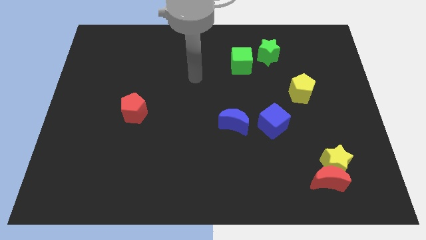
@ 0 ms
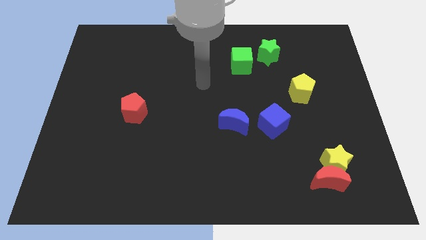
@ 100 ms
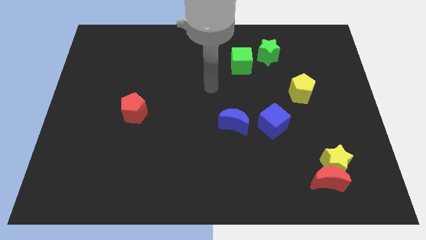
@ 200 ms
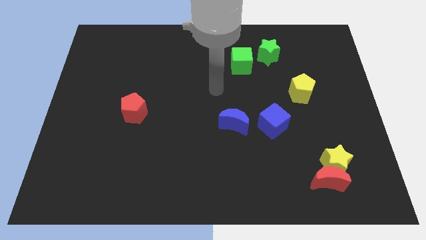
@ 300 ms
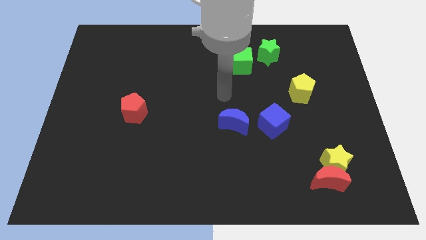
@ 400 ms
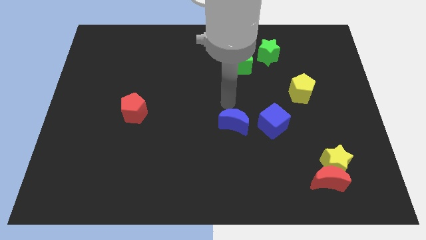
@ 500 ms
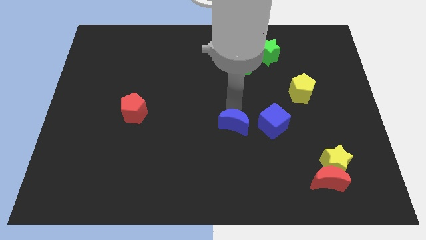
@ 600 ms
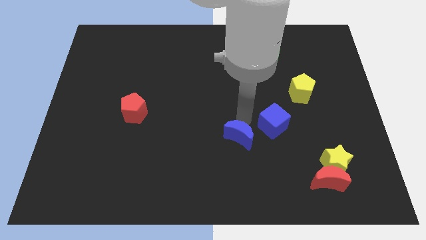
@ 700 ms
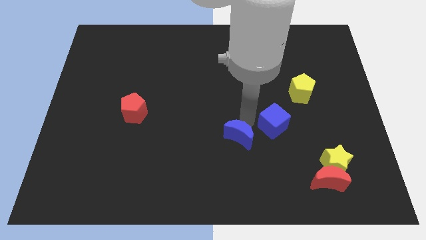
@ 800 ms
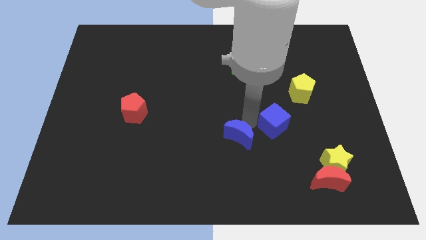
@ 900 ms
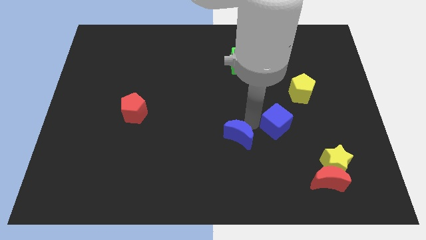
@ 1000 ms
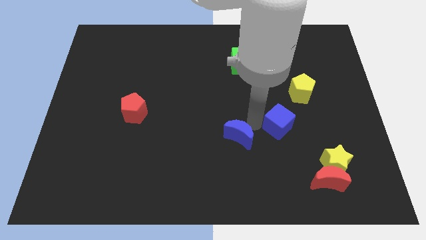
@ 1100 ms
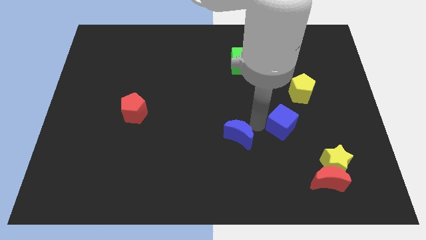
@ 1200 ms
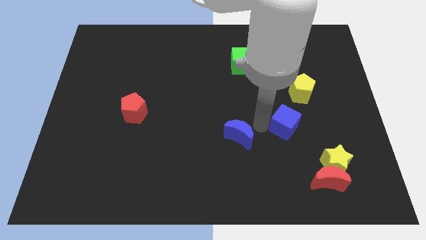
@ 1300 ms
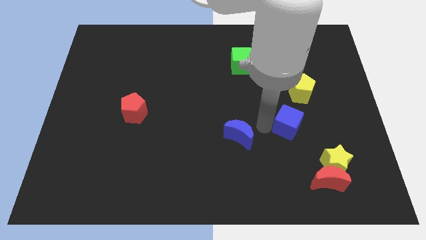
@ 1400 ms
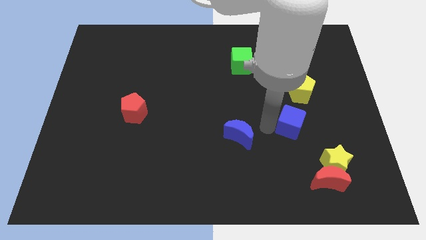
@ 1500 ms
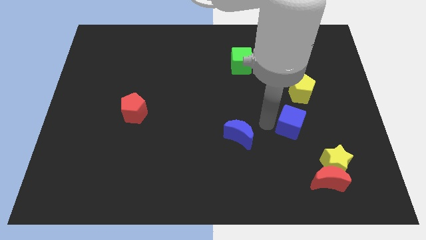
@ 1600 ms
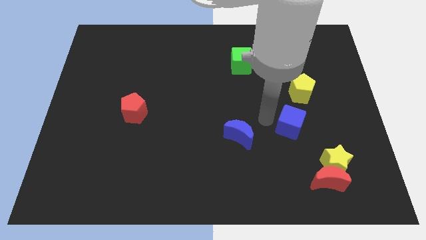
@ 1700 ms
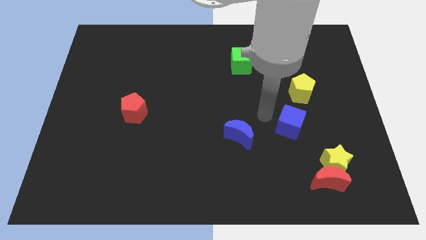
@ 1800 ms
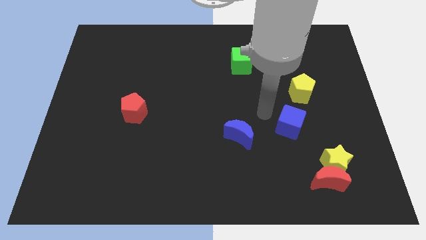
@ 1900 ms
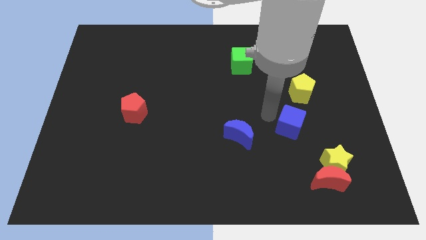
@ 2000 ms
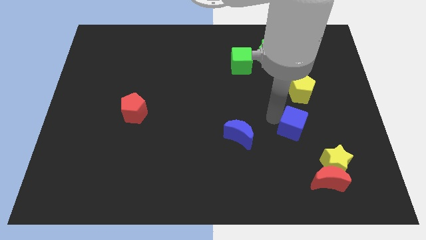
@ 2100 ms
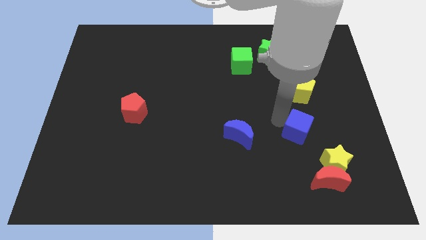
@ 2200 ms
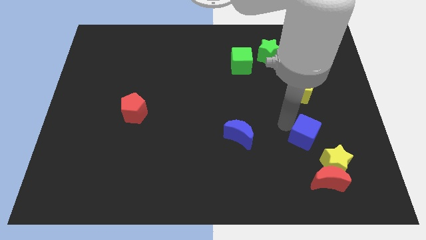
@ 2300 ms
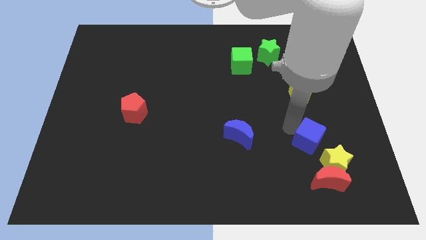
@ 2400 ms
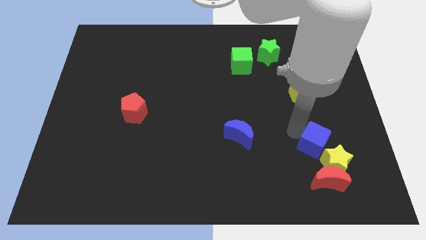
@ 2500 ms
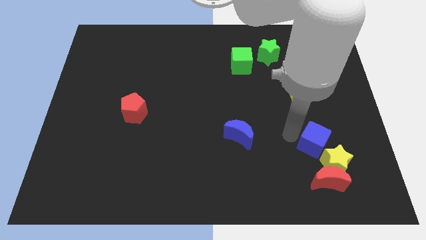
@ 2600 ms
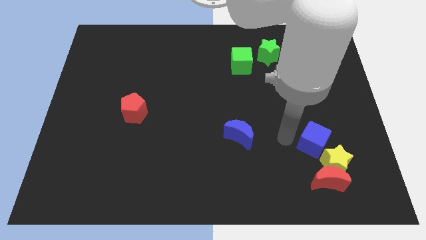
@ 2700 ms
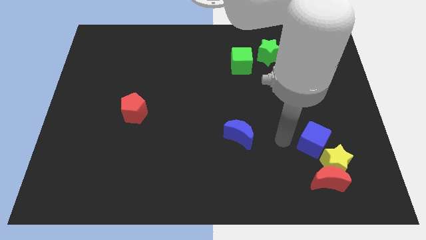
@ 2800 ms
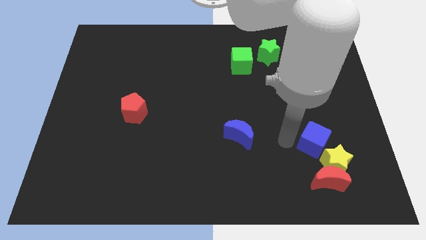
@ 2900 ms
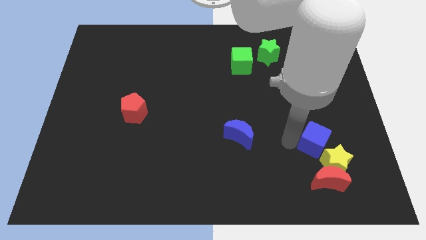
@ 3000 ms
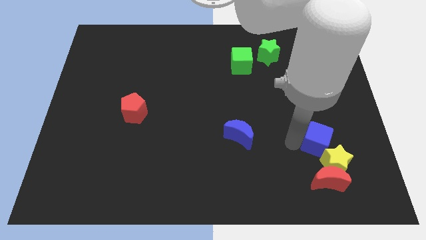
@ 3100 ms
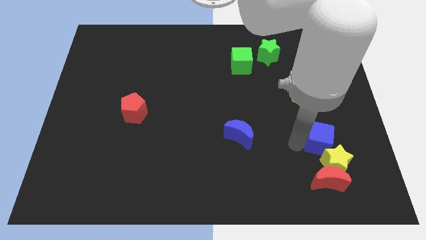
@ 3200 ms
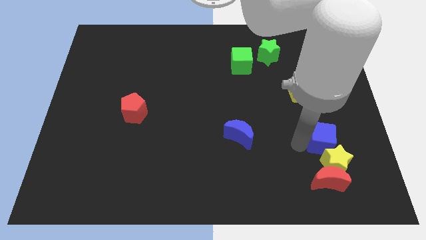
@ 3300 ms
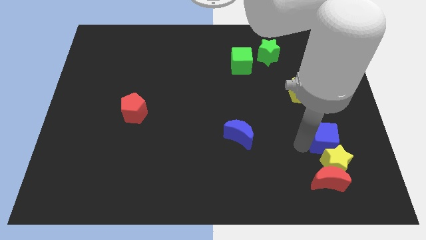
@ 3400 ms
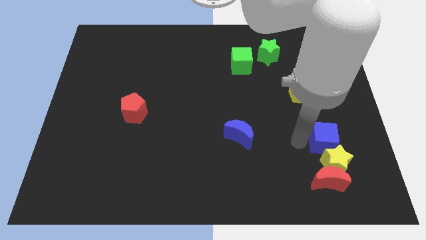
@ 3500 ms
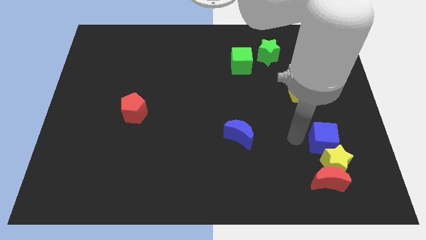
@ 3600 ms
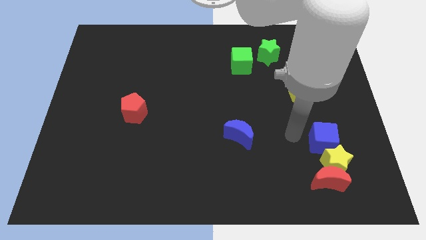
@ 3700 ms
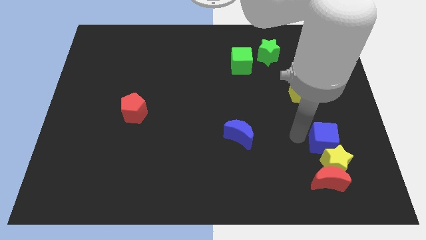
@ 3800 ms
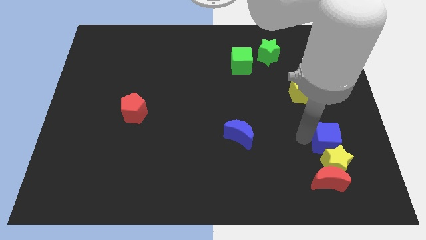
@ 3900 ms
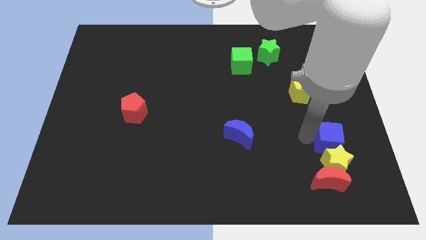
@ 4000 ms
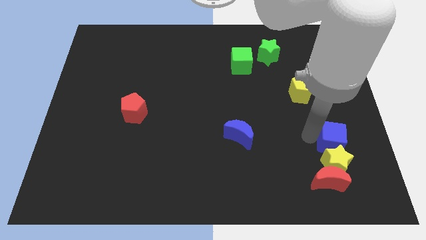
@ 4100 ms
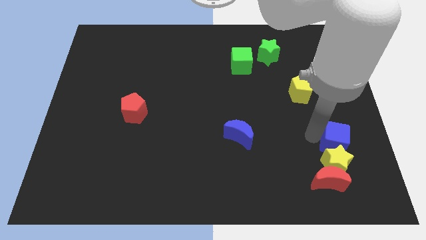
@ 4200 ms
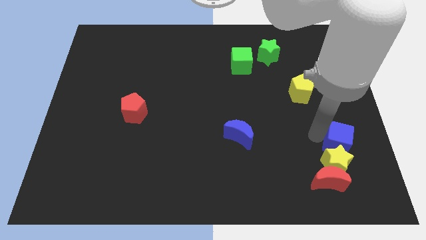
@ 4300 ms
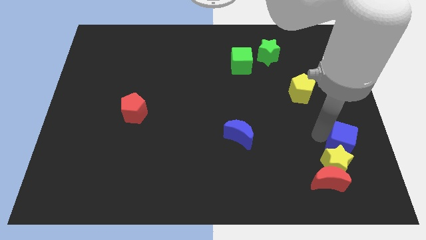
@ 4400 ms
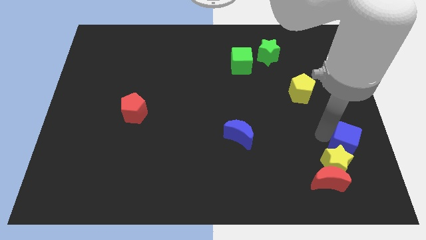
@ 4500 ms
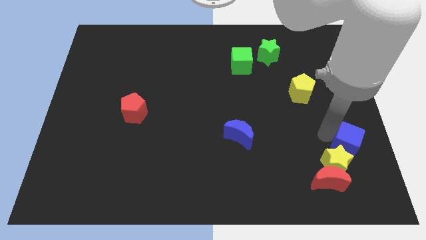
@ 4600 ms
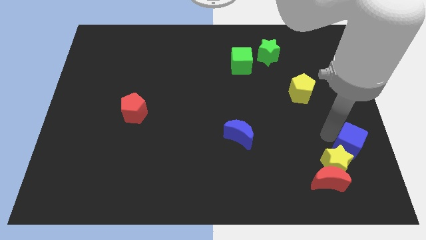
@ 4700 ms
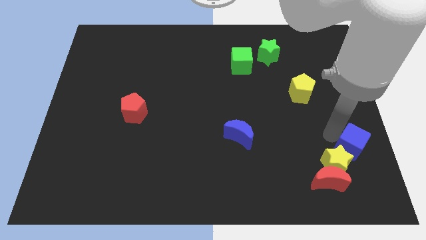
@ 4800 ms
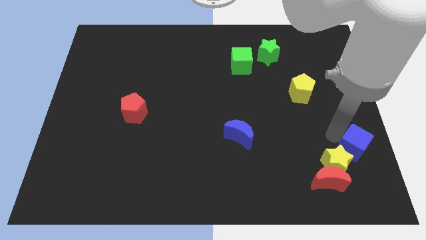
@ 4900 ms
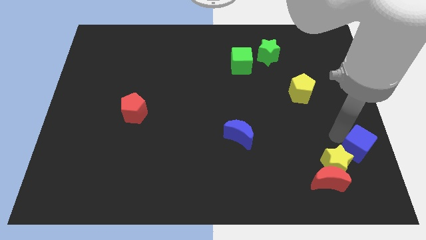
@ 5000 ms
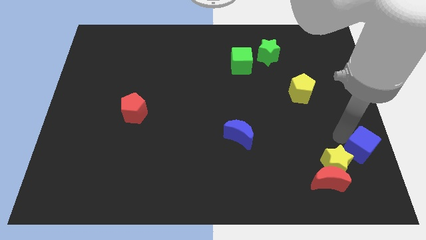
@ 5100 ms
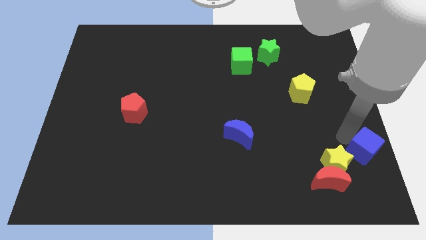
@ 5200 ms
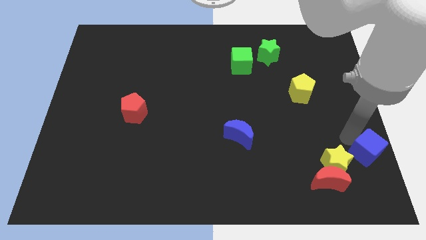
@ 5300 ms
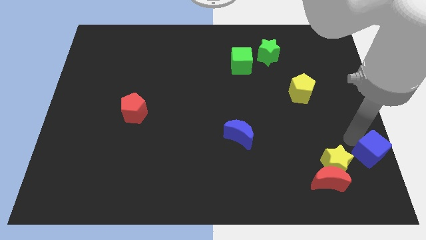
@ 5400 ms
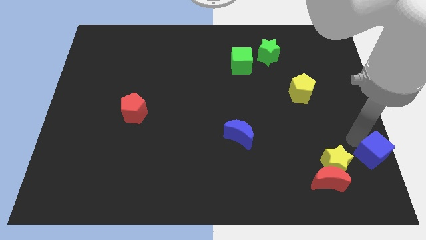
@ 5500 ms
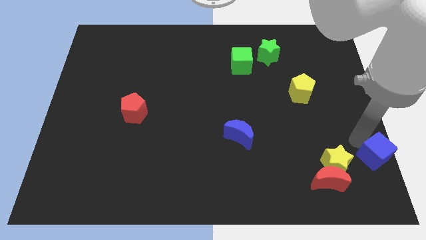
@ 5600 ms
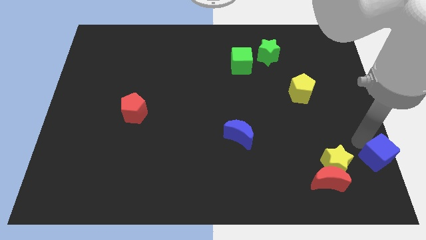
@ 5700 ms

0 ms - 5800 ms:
slide the blue cube to the bottom right

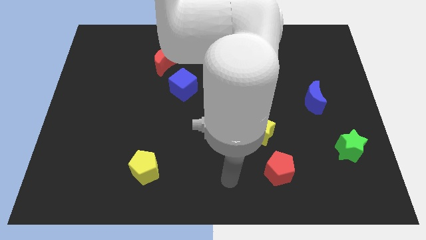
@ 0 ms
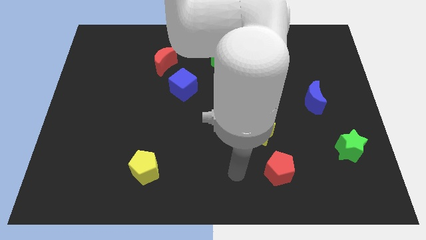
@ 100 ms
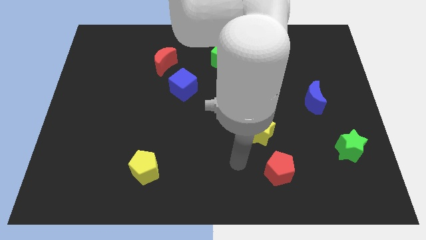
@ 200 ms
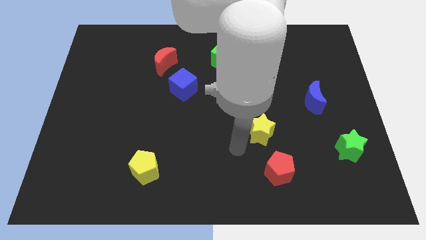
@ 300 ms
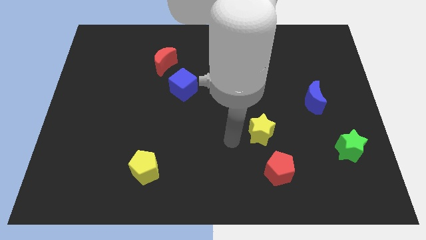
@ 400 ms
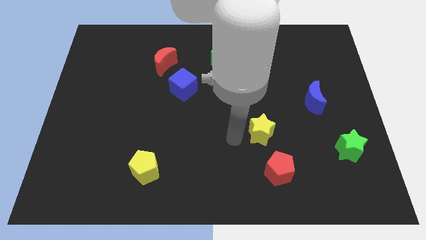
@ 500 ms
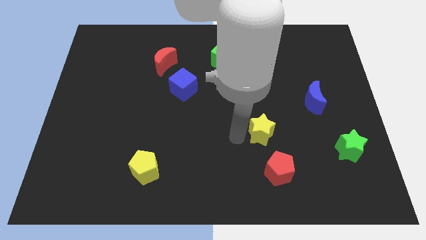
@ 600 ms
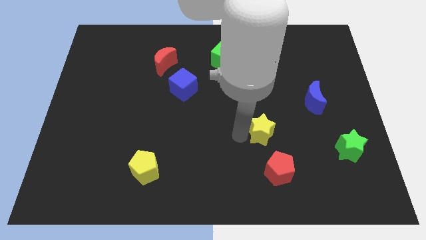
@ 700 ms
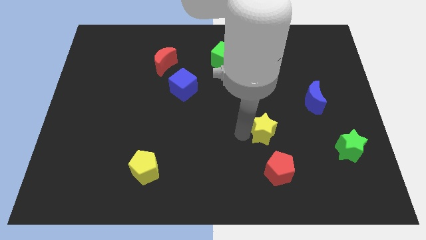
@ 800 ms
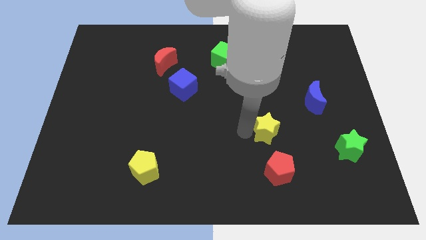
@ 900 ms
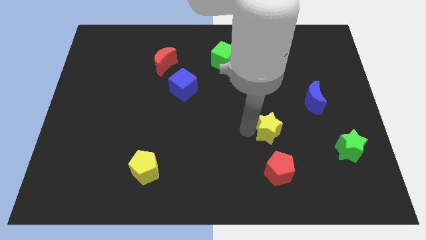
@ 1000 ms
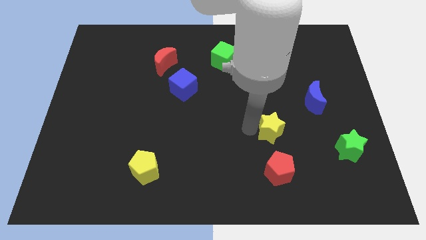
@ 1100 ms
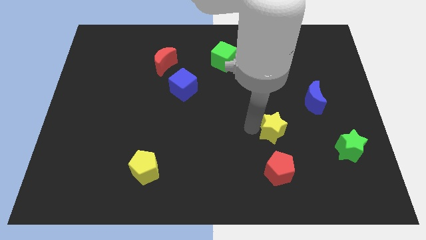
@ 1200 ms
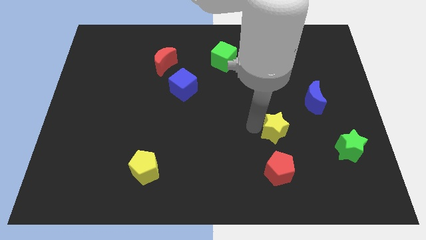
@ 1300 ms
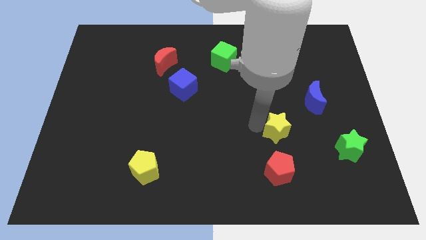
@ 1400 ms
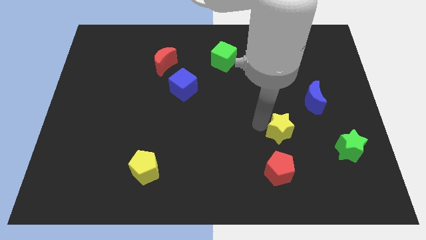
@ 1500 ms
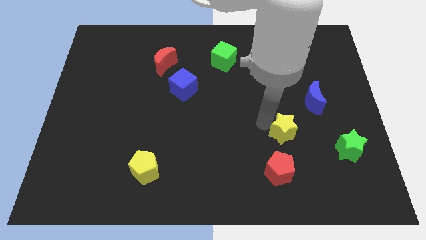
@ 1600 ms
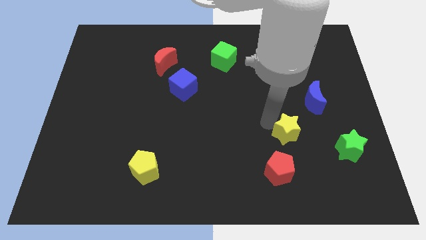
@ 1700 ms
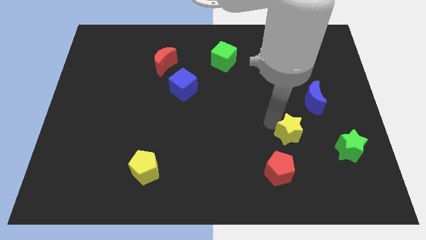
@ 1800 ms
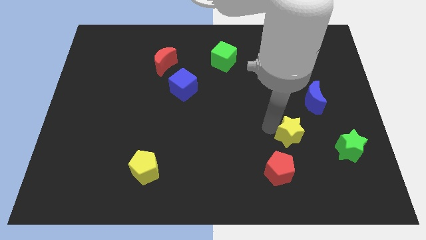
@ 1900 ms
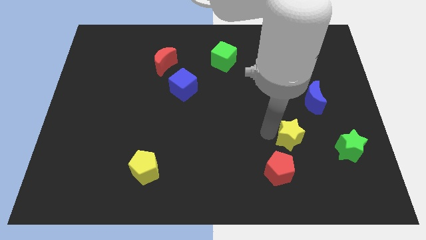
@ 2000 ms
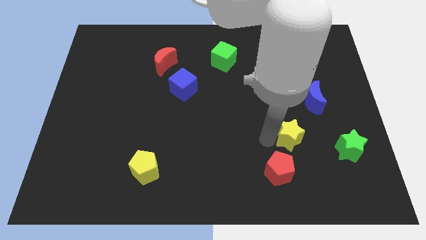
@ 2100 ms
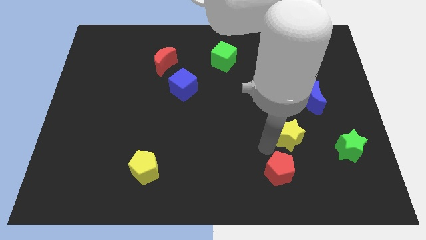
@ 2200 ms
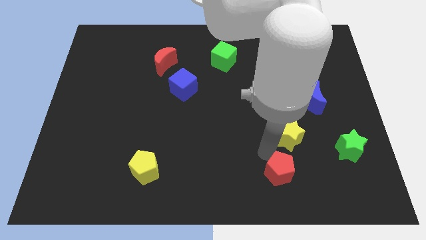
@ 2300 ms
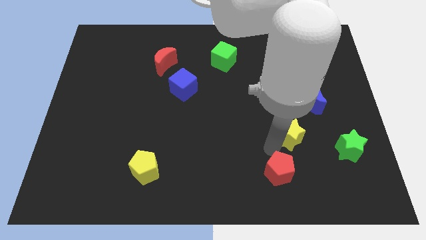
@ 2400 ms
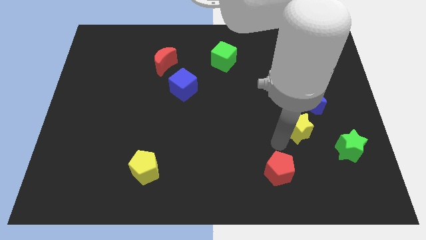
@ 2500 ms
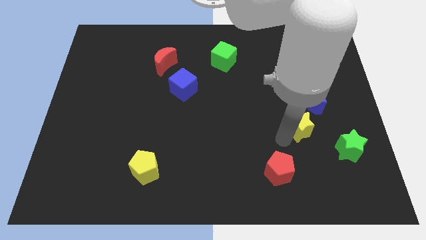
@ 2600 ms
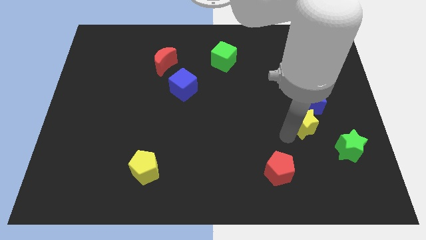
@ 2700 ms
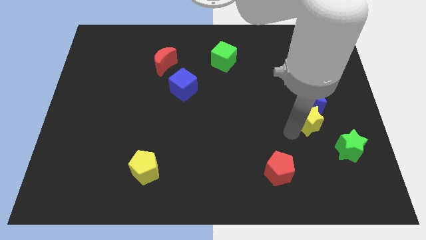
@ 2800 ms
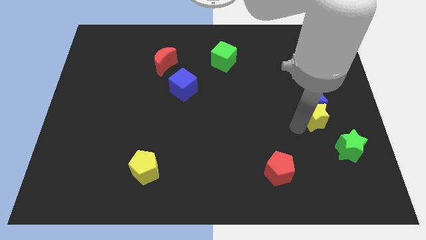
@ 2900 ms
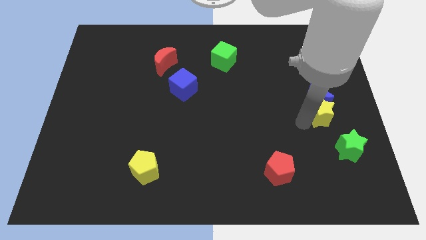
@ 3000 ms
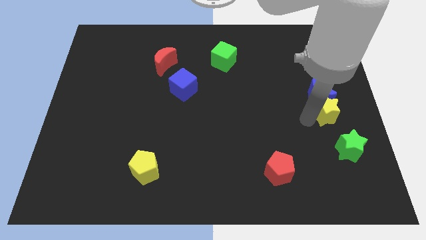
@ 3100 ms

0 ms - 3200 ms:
slide the yellow star to the right side of the board
